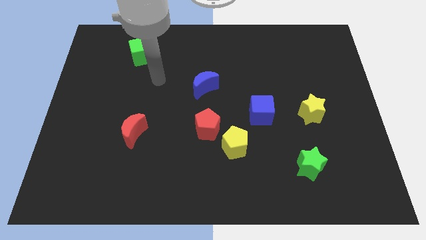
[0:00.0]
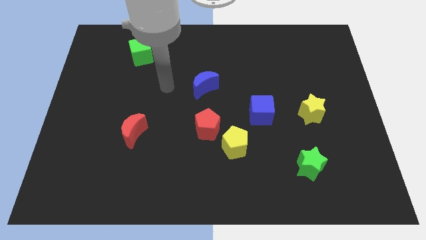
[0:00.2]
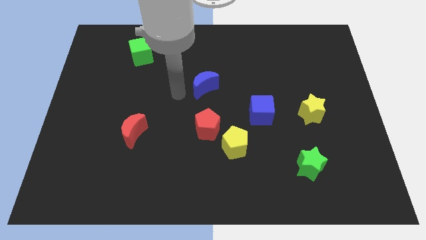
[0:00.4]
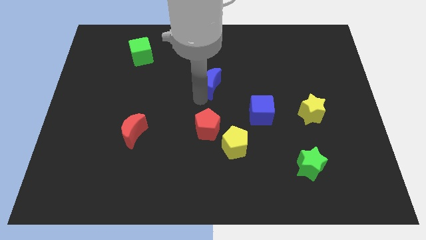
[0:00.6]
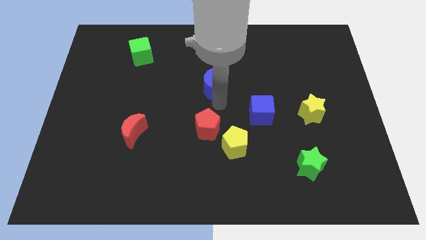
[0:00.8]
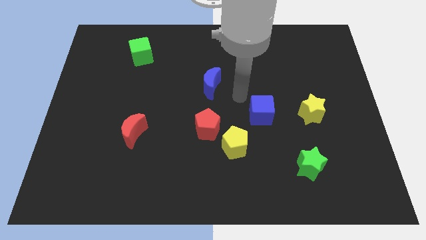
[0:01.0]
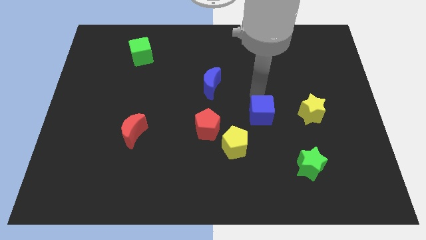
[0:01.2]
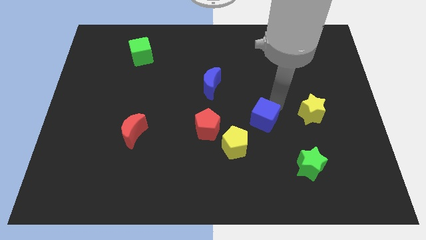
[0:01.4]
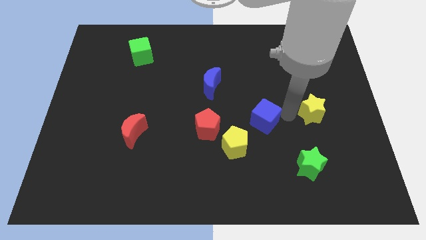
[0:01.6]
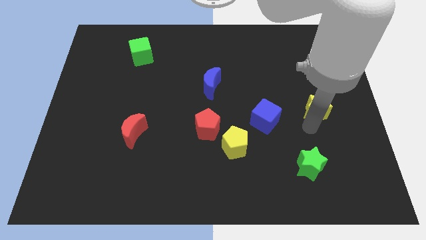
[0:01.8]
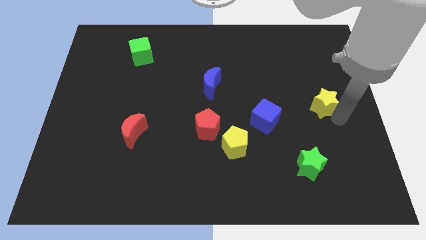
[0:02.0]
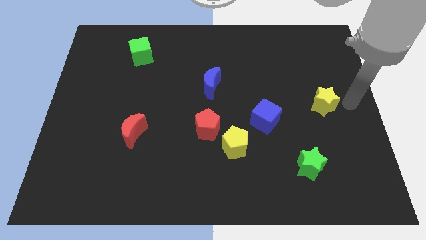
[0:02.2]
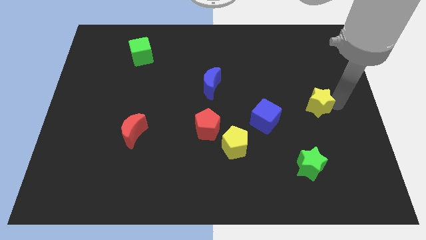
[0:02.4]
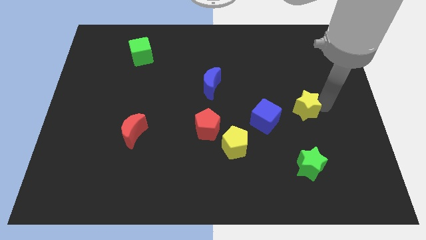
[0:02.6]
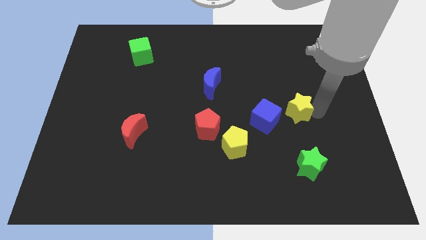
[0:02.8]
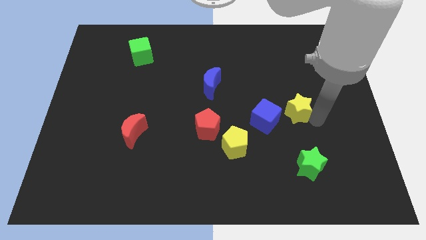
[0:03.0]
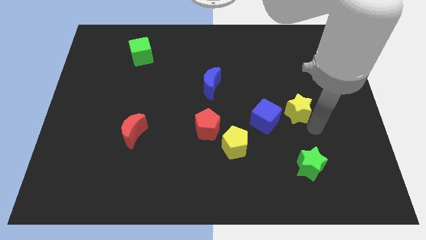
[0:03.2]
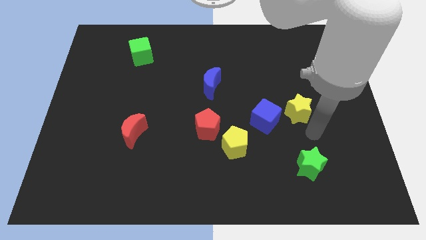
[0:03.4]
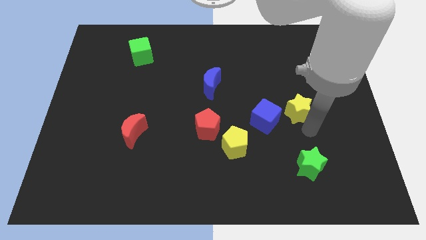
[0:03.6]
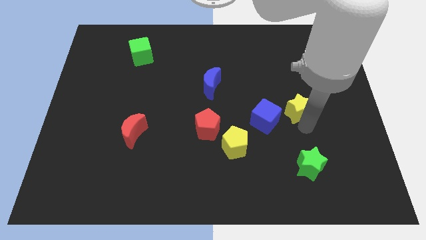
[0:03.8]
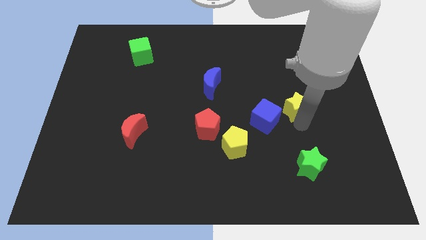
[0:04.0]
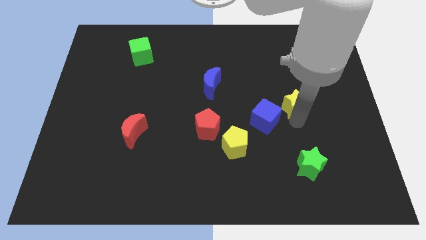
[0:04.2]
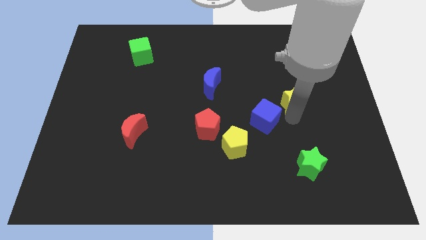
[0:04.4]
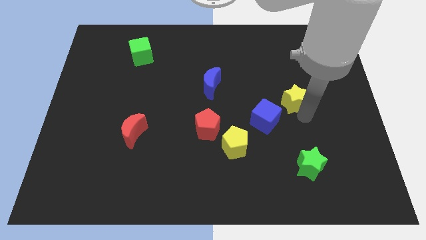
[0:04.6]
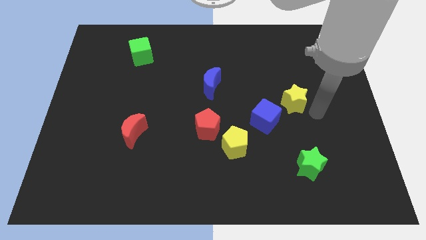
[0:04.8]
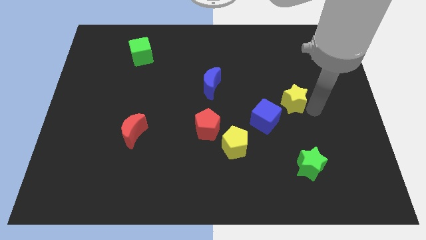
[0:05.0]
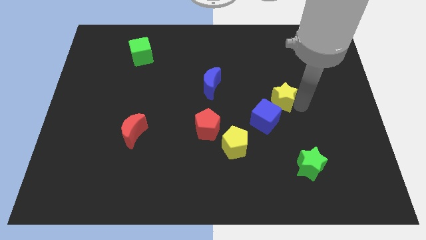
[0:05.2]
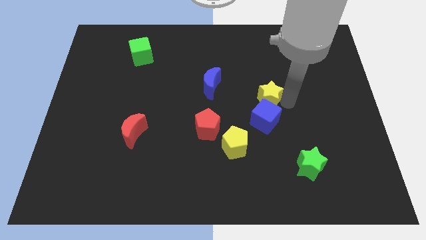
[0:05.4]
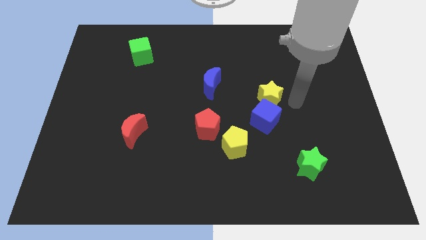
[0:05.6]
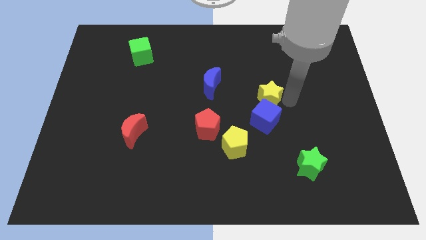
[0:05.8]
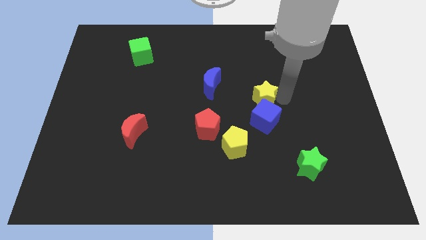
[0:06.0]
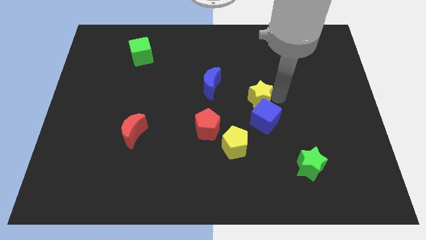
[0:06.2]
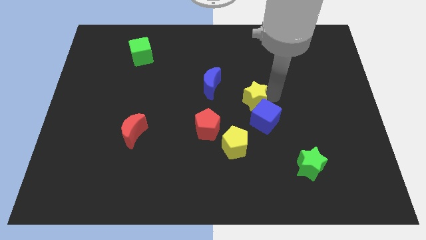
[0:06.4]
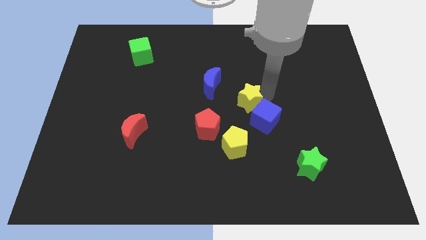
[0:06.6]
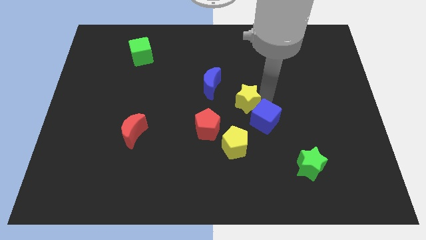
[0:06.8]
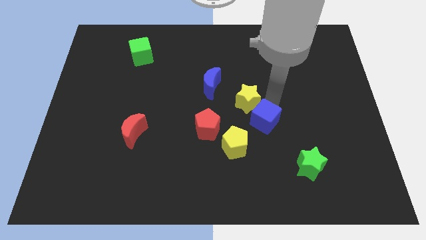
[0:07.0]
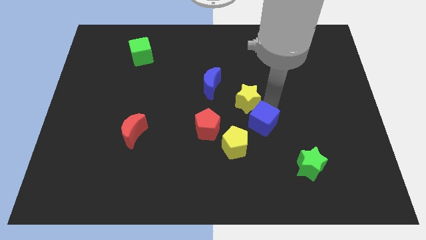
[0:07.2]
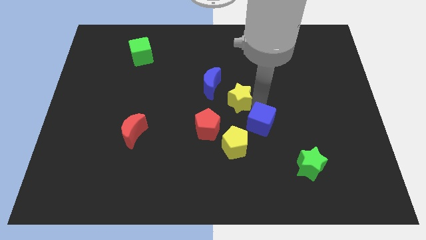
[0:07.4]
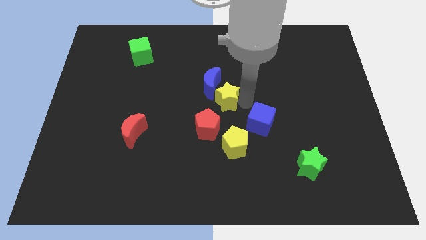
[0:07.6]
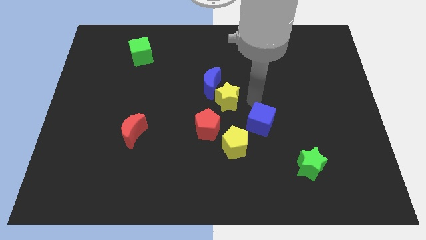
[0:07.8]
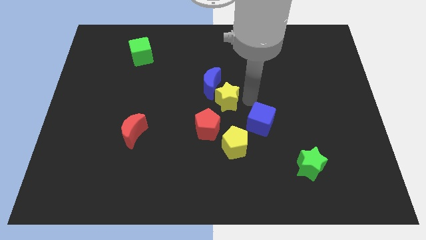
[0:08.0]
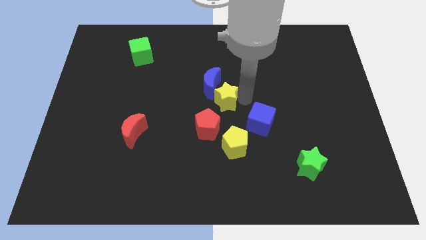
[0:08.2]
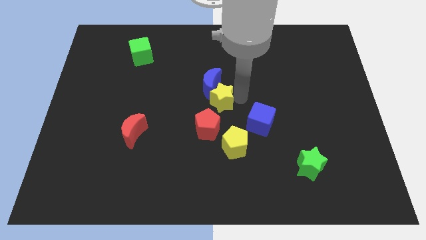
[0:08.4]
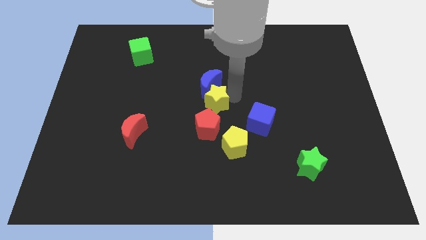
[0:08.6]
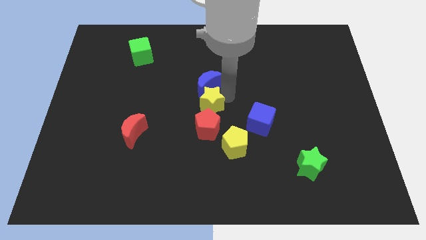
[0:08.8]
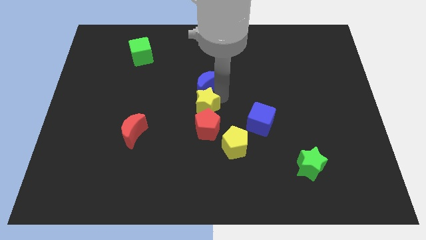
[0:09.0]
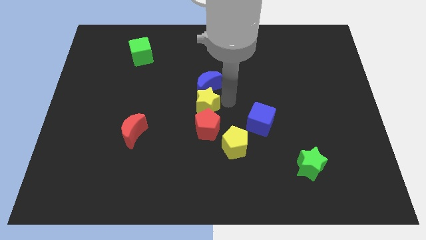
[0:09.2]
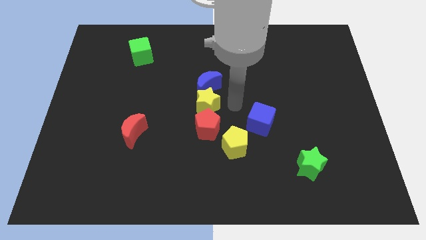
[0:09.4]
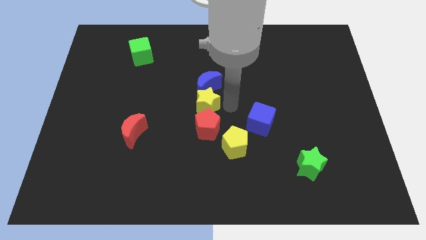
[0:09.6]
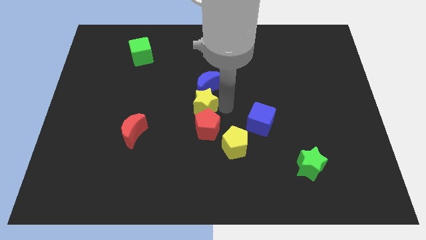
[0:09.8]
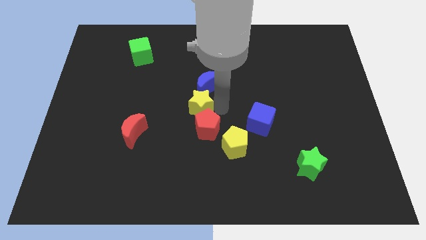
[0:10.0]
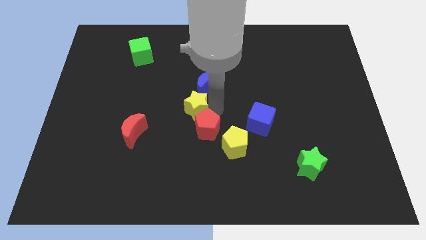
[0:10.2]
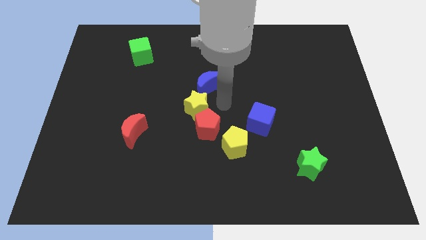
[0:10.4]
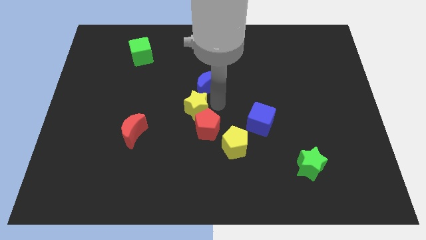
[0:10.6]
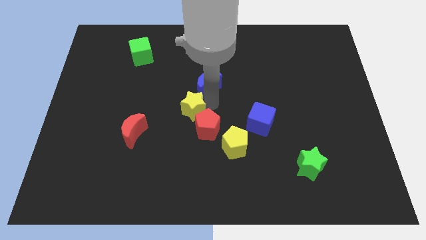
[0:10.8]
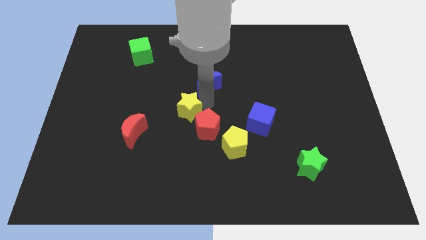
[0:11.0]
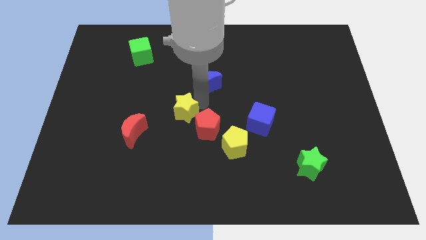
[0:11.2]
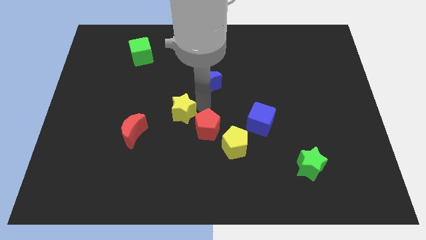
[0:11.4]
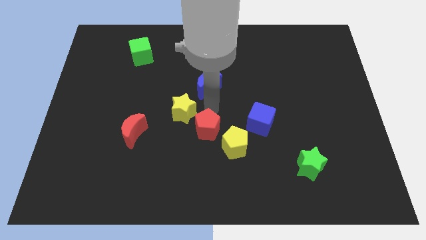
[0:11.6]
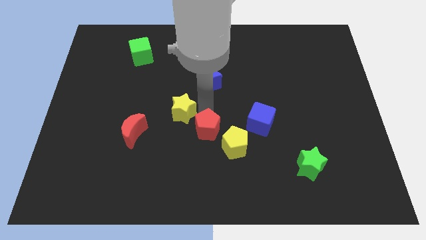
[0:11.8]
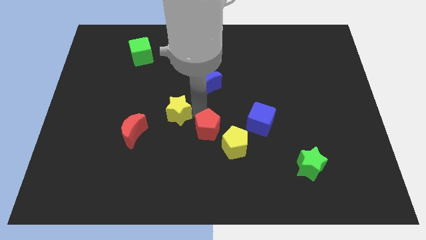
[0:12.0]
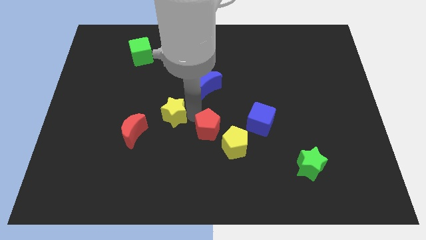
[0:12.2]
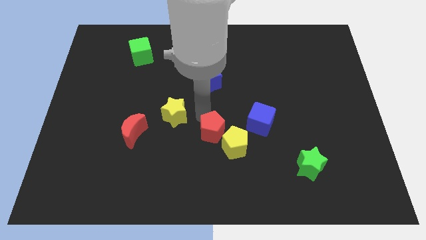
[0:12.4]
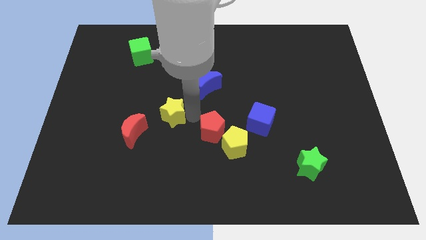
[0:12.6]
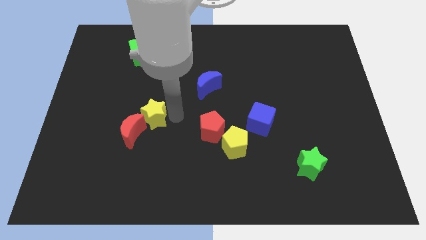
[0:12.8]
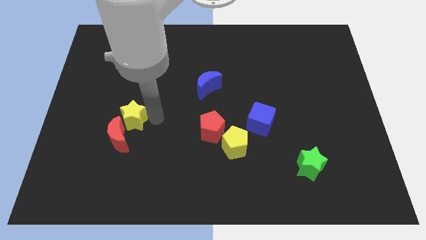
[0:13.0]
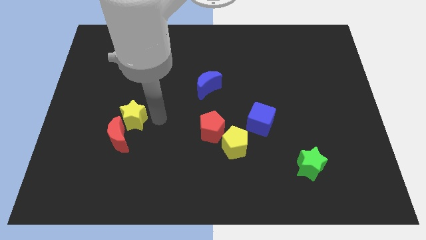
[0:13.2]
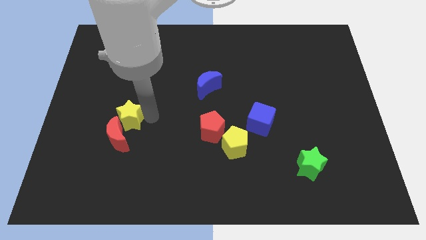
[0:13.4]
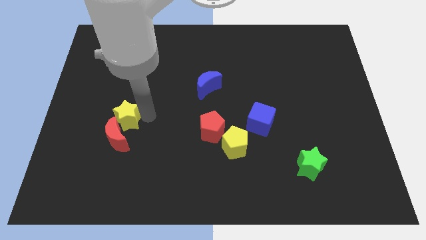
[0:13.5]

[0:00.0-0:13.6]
slide the yellow star diagonally up and to the left of the red moon

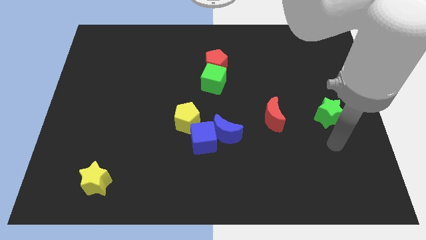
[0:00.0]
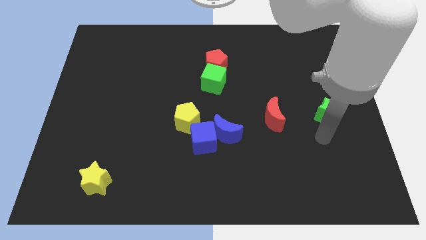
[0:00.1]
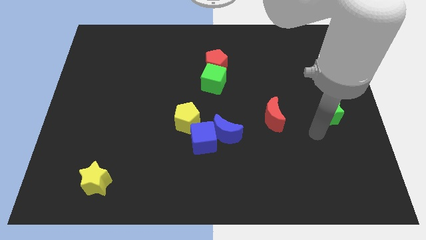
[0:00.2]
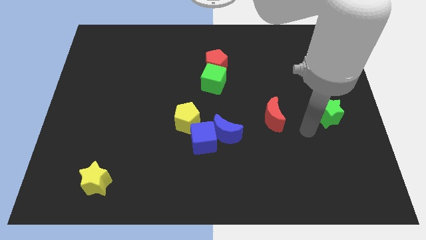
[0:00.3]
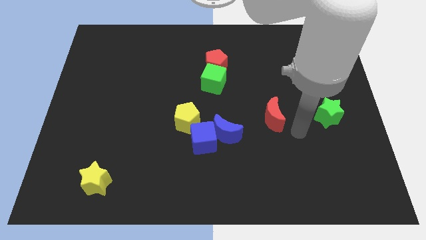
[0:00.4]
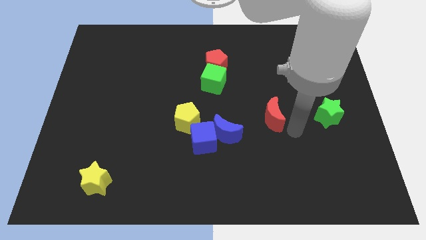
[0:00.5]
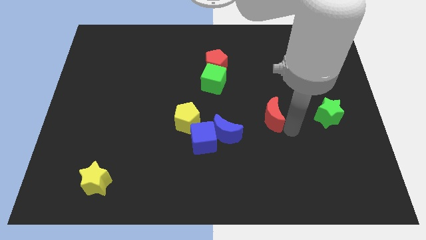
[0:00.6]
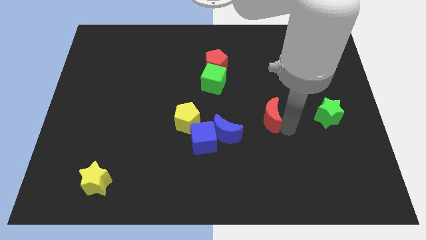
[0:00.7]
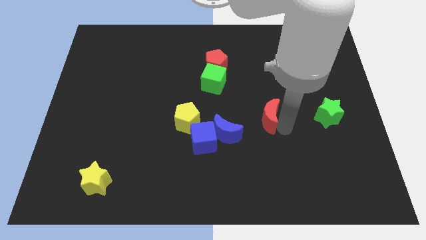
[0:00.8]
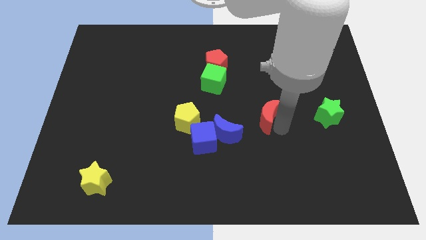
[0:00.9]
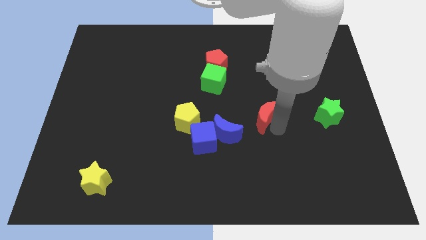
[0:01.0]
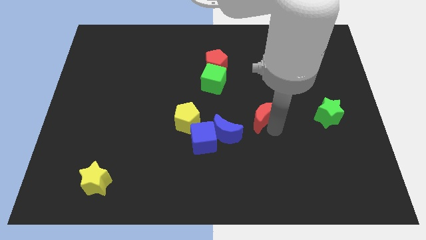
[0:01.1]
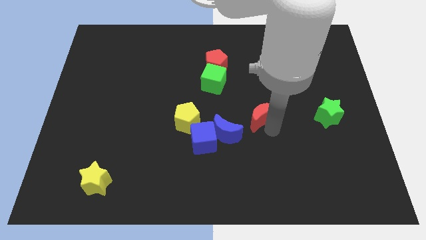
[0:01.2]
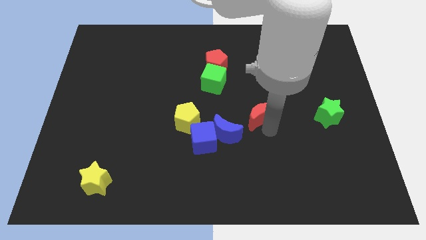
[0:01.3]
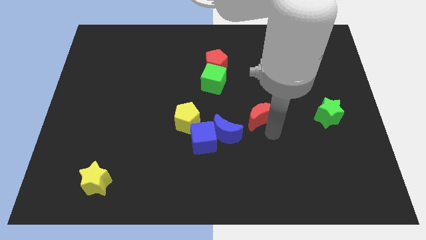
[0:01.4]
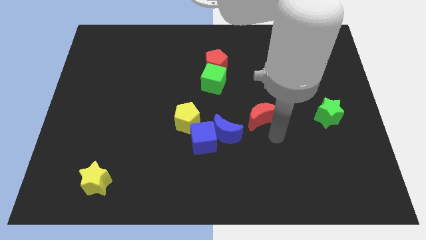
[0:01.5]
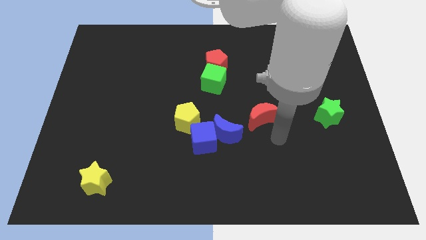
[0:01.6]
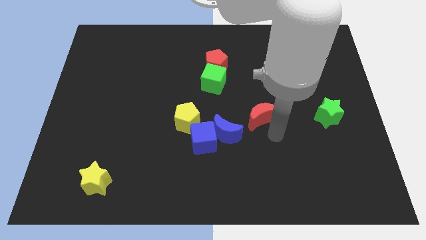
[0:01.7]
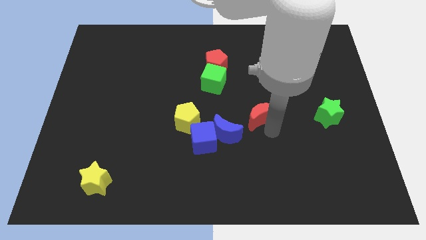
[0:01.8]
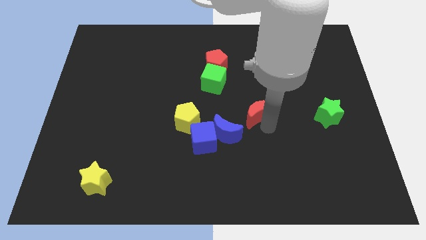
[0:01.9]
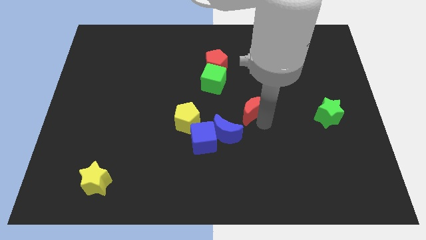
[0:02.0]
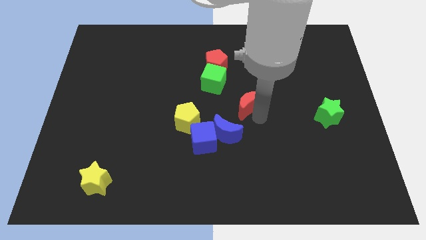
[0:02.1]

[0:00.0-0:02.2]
put the red moon diagonally down and to the right of the green cube
